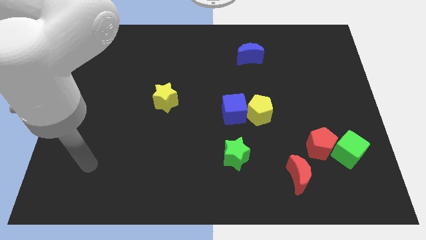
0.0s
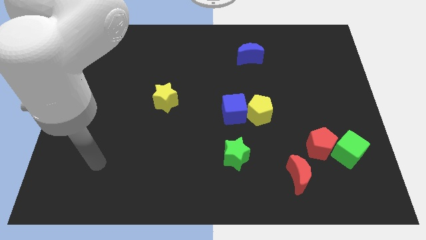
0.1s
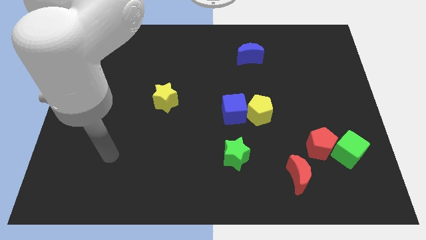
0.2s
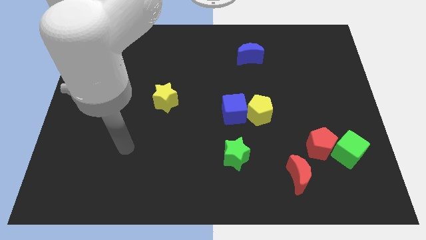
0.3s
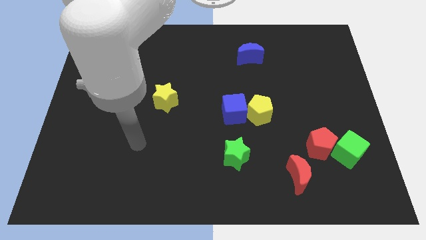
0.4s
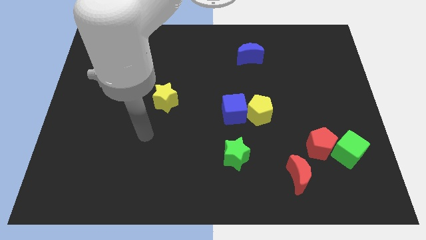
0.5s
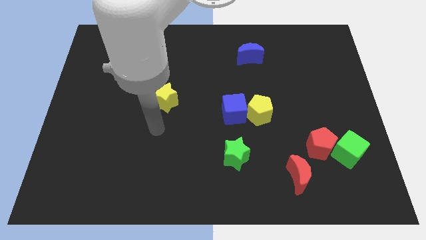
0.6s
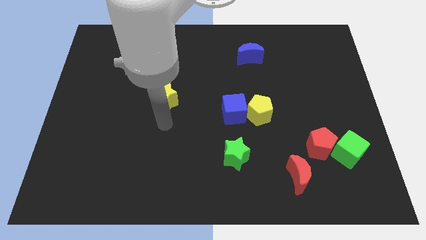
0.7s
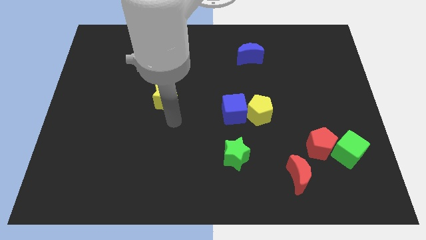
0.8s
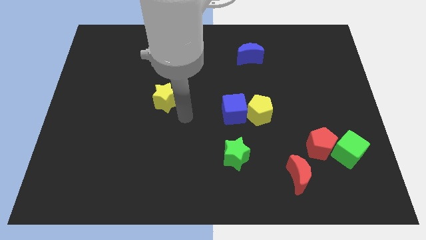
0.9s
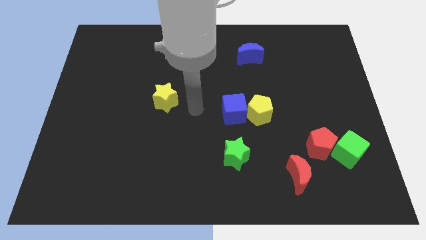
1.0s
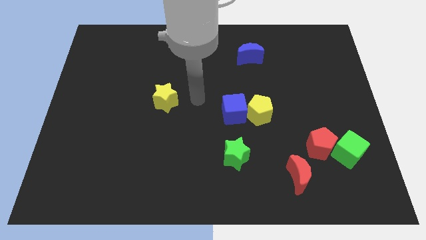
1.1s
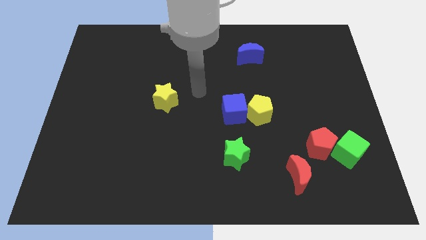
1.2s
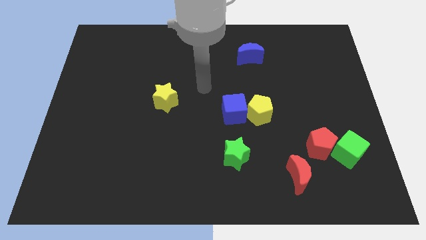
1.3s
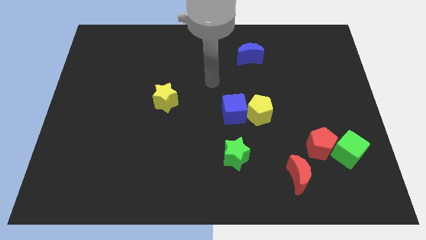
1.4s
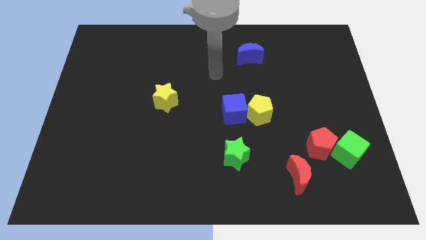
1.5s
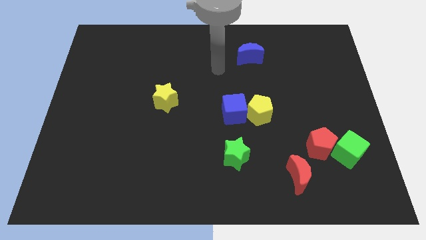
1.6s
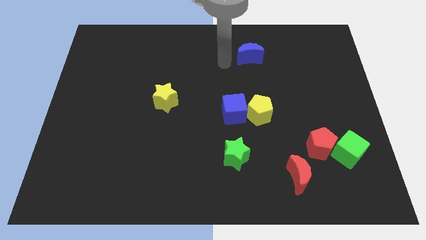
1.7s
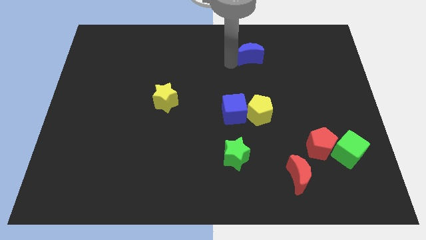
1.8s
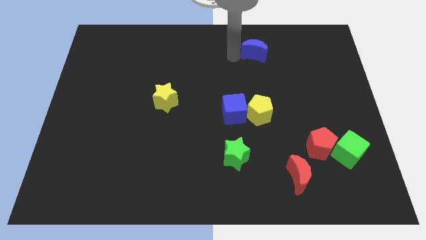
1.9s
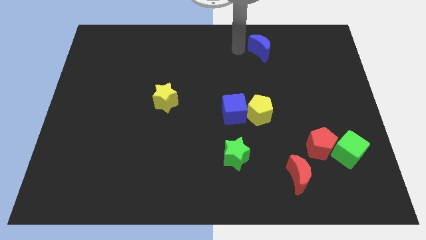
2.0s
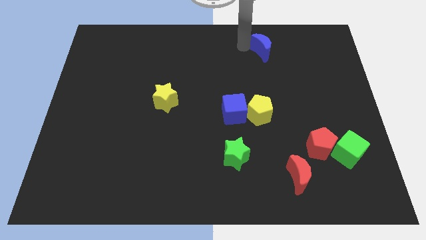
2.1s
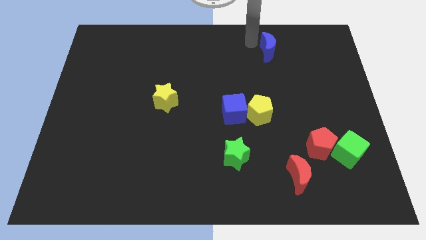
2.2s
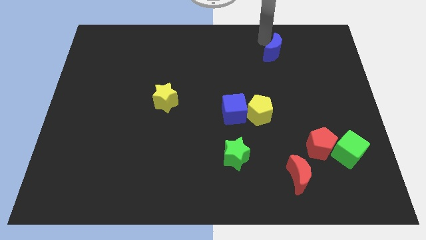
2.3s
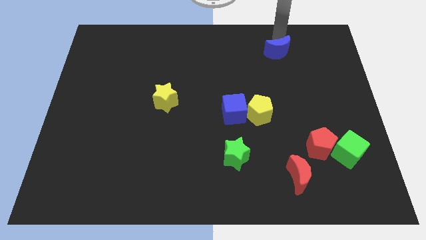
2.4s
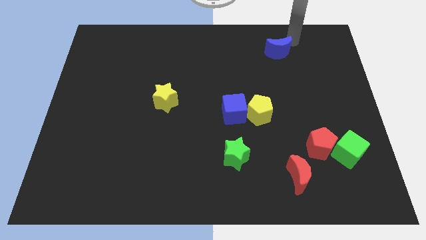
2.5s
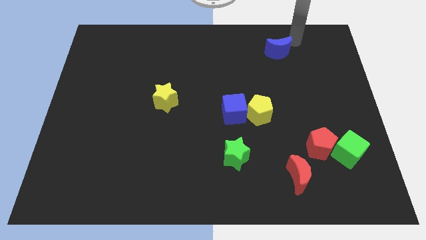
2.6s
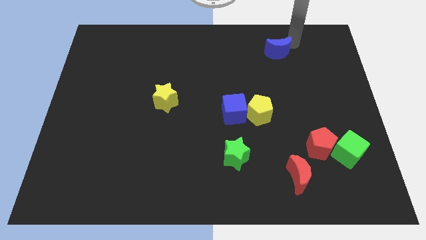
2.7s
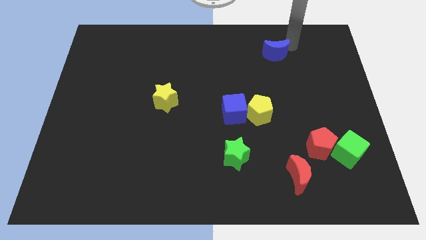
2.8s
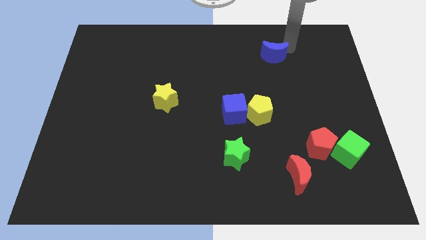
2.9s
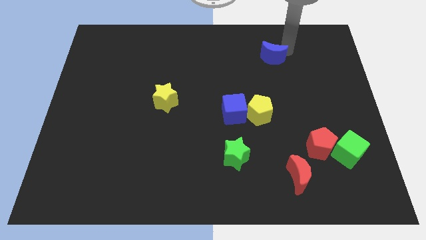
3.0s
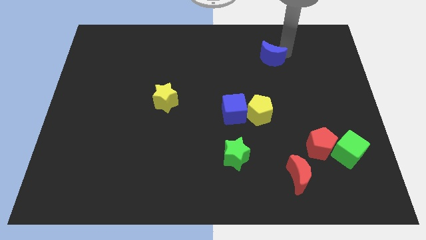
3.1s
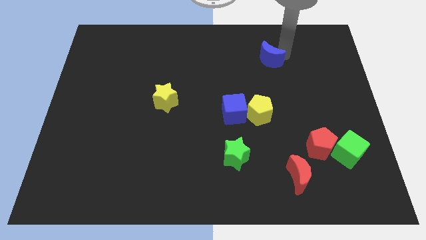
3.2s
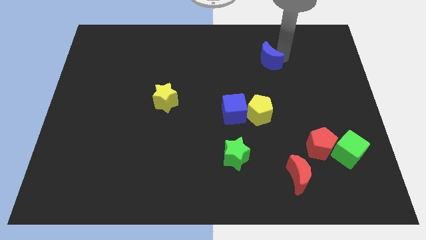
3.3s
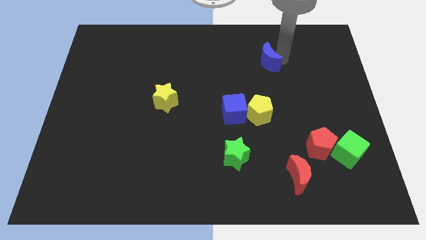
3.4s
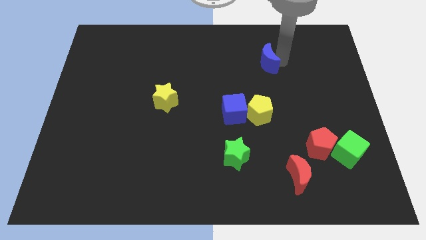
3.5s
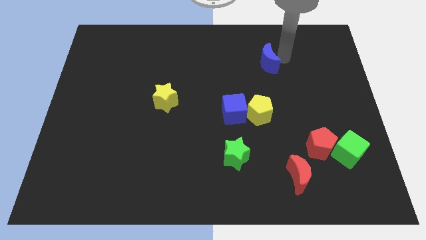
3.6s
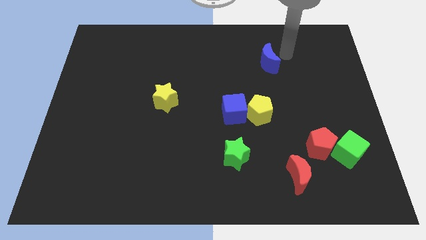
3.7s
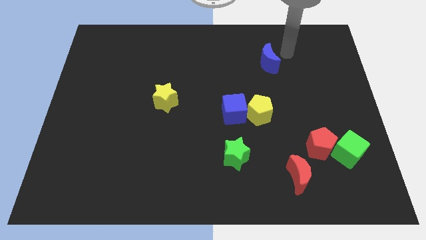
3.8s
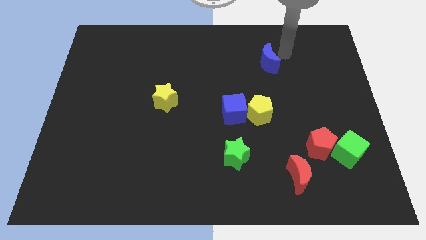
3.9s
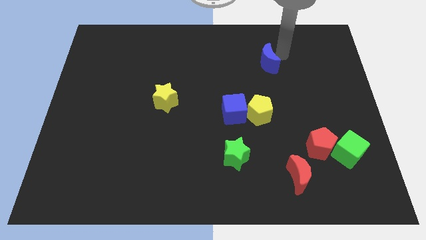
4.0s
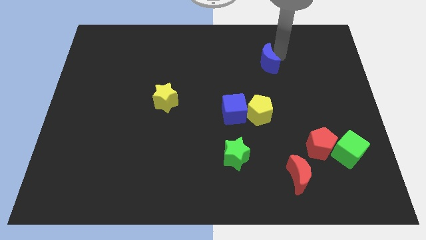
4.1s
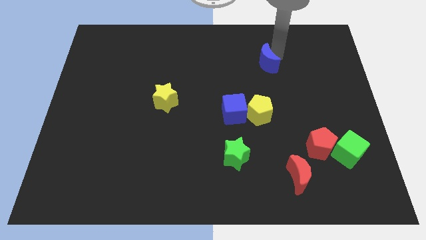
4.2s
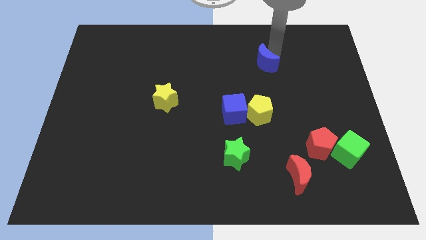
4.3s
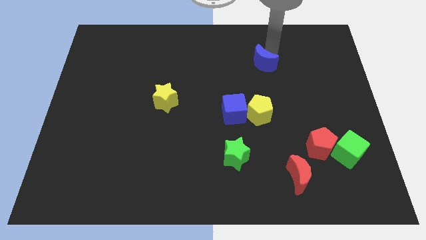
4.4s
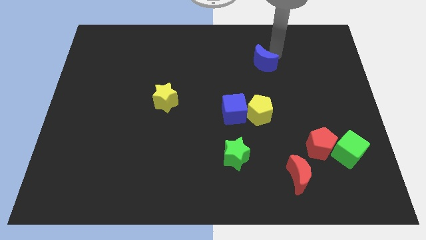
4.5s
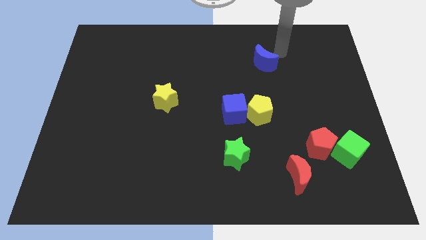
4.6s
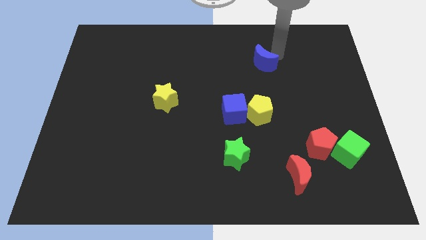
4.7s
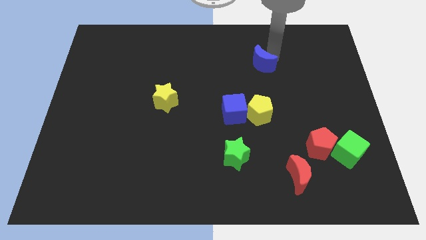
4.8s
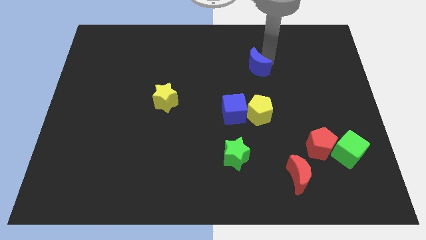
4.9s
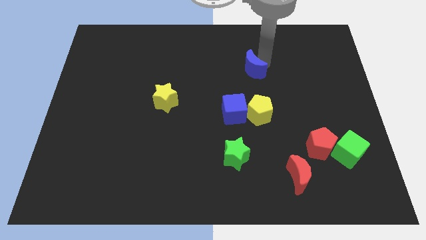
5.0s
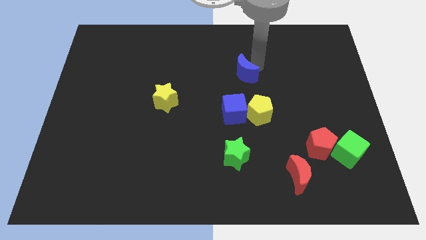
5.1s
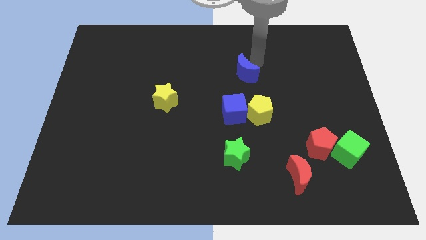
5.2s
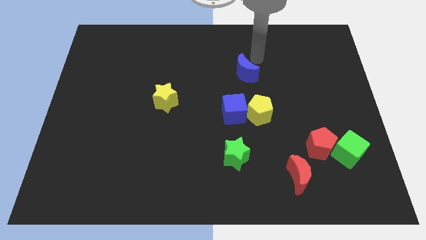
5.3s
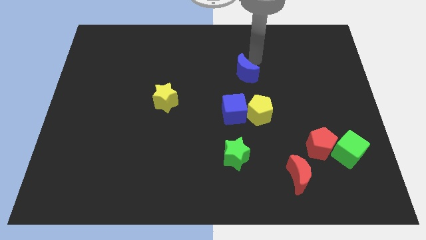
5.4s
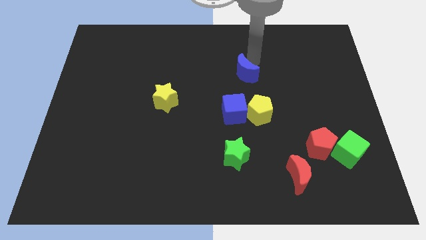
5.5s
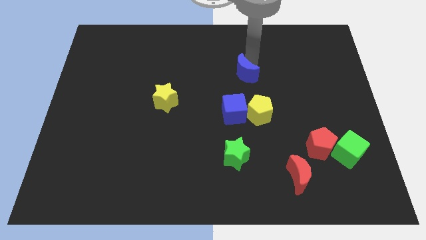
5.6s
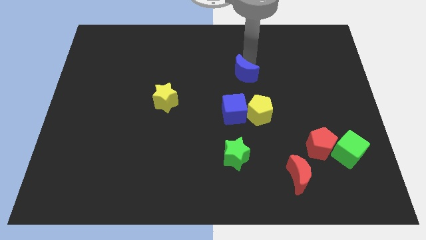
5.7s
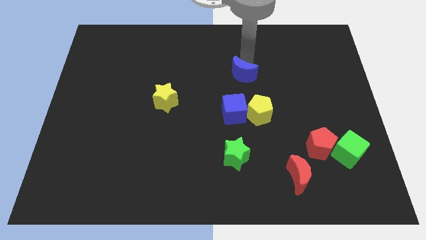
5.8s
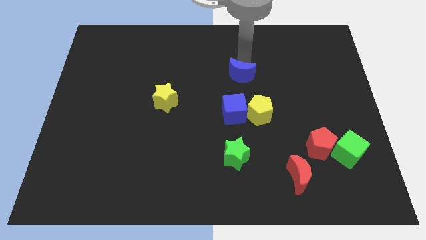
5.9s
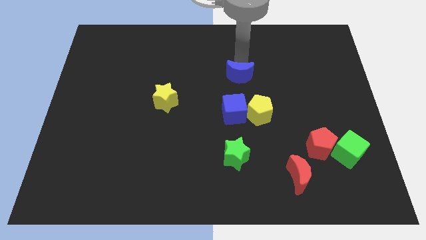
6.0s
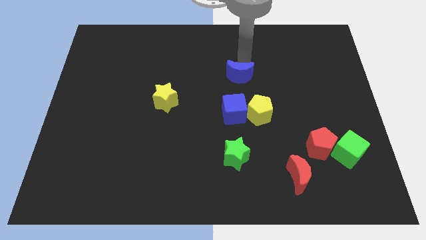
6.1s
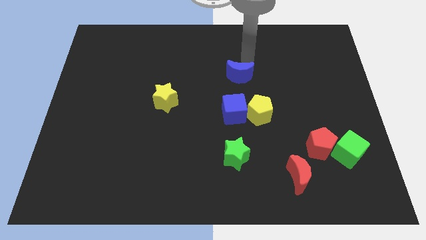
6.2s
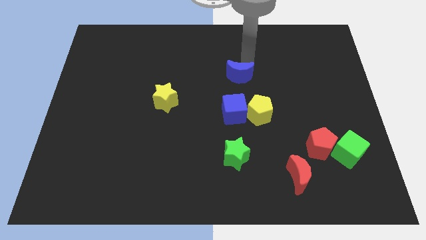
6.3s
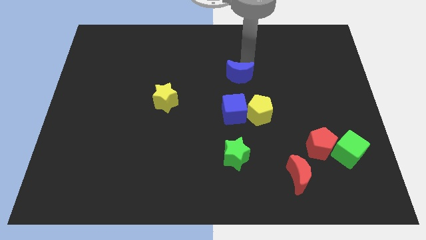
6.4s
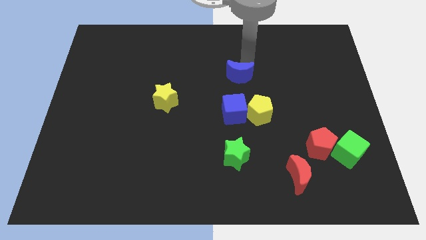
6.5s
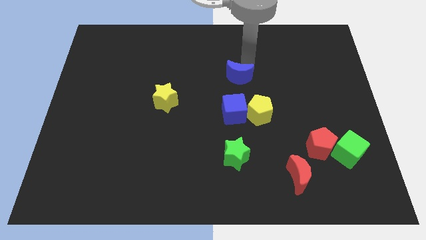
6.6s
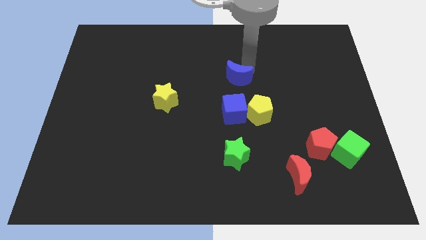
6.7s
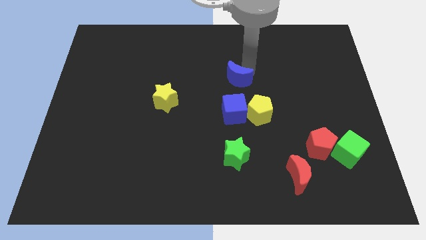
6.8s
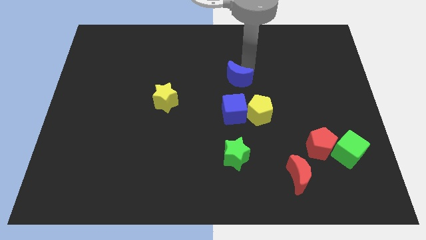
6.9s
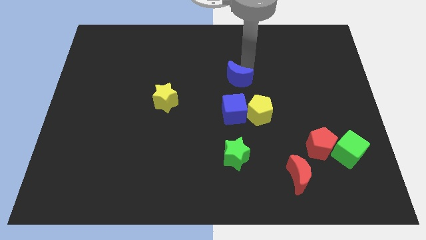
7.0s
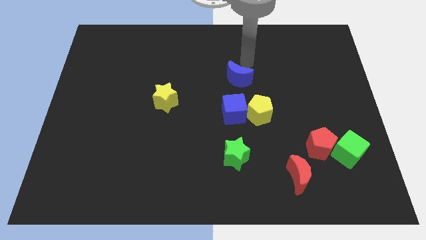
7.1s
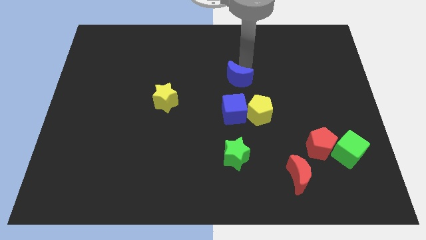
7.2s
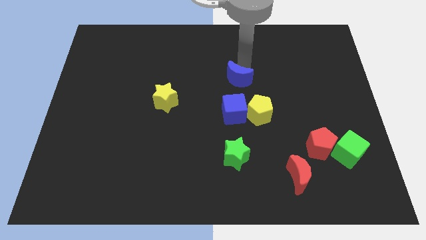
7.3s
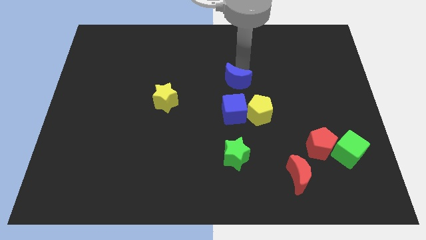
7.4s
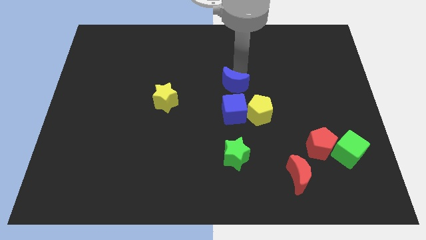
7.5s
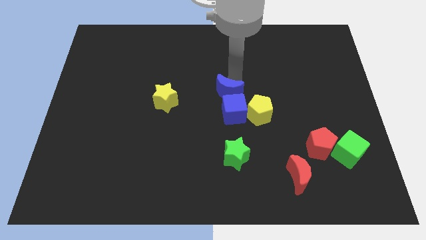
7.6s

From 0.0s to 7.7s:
push the blue moon to the blue cube
